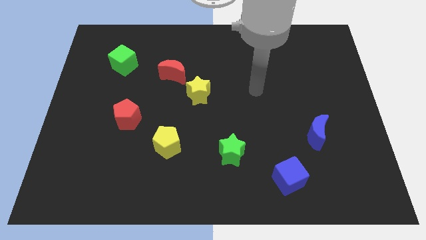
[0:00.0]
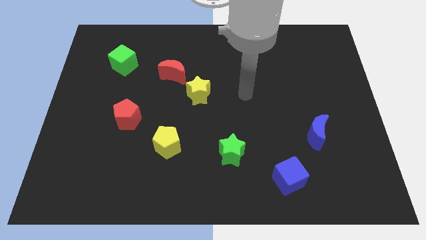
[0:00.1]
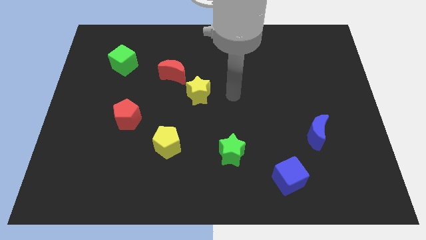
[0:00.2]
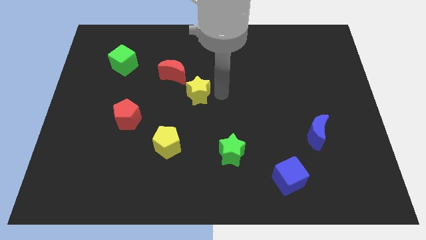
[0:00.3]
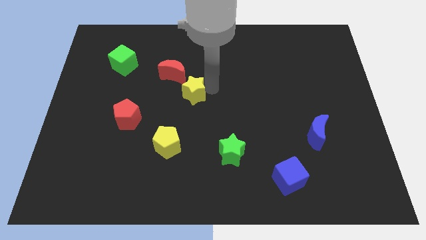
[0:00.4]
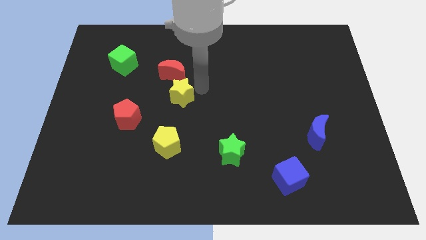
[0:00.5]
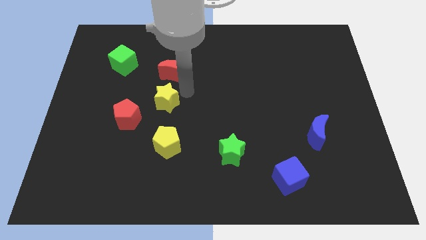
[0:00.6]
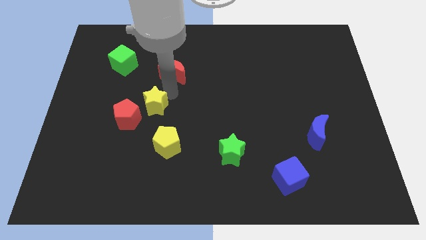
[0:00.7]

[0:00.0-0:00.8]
move the red moon away from the yellow star

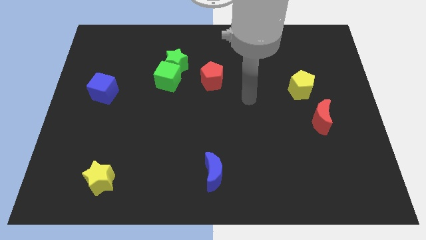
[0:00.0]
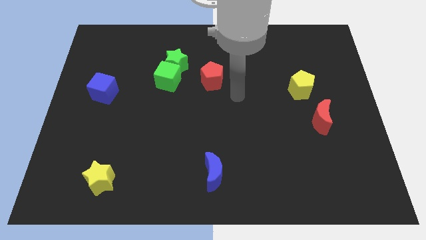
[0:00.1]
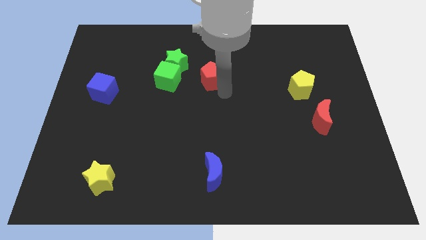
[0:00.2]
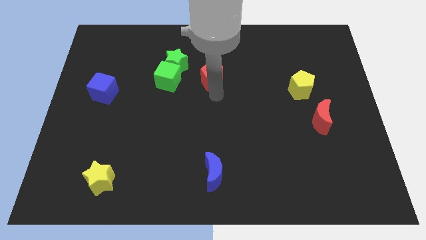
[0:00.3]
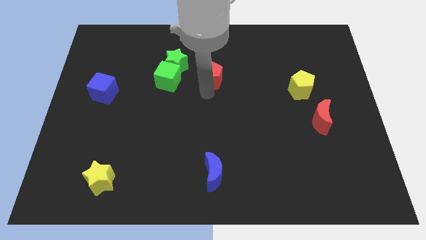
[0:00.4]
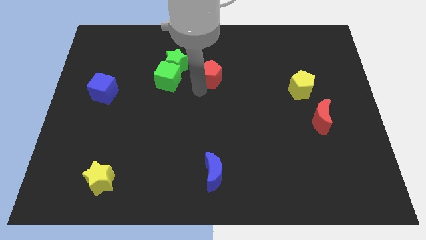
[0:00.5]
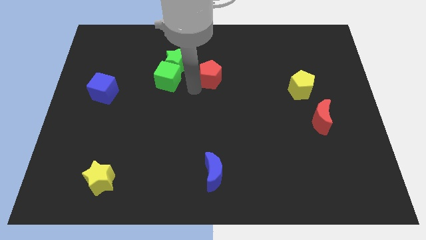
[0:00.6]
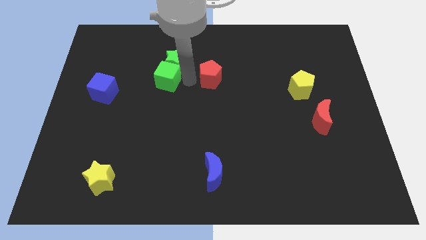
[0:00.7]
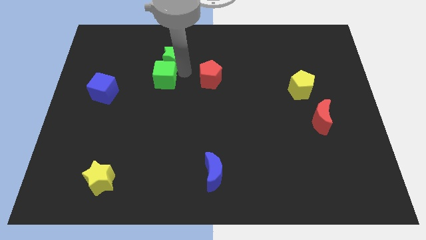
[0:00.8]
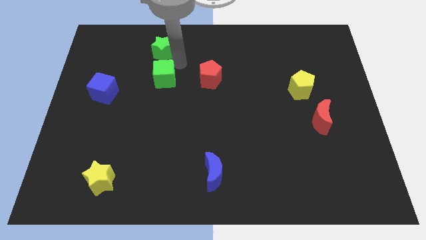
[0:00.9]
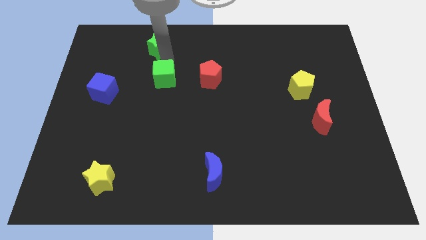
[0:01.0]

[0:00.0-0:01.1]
separate the green cube from the green star

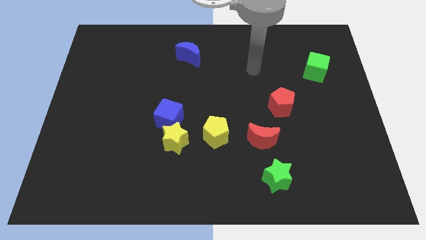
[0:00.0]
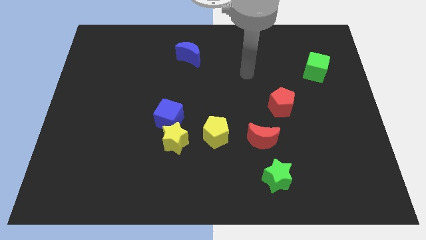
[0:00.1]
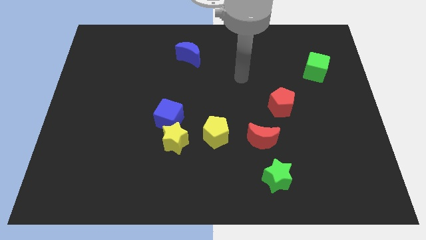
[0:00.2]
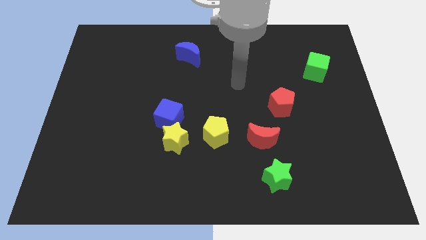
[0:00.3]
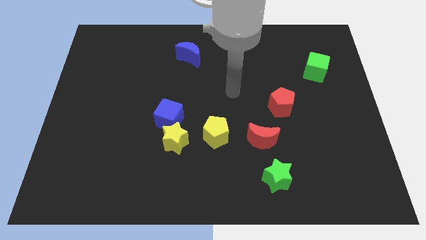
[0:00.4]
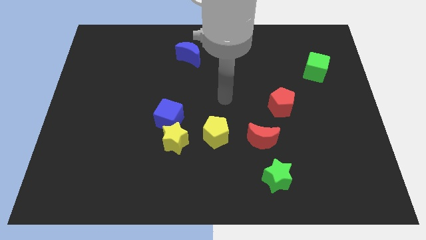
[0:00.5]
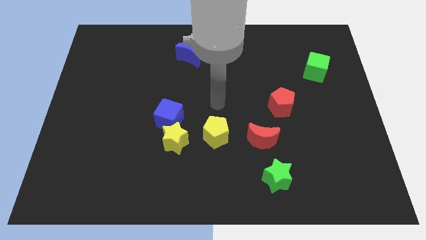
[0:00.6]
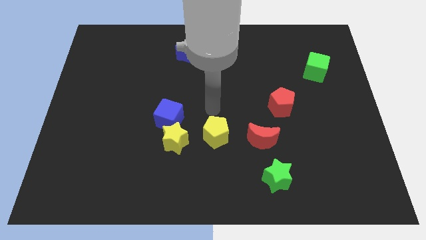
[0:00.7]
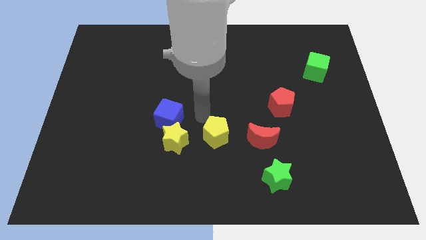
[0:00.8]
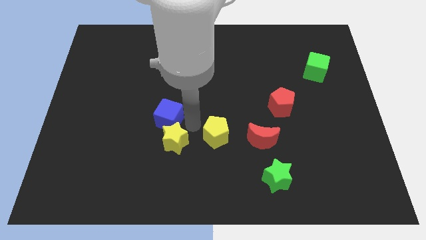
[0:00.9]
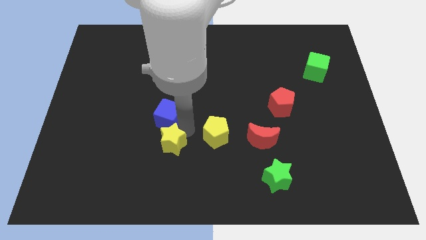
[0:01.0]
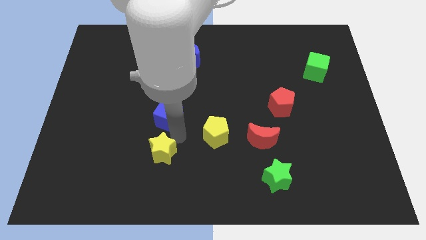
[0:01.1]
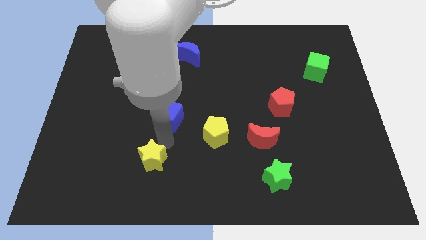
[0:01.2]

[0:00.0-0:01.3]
move the blue cube away from the yellow star

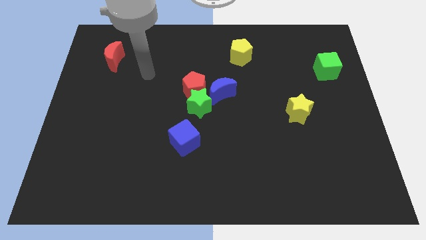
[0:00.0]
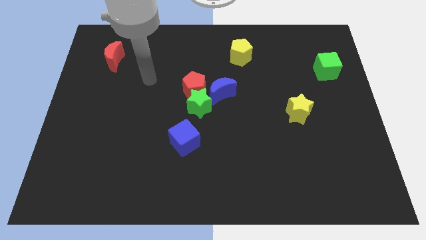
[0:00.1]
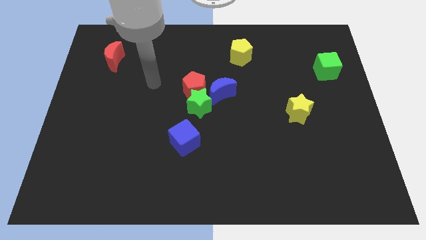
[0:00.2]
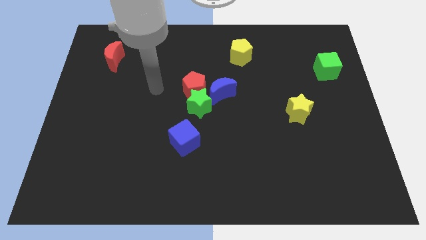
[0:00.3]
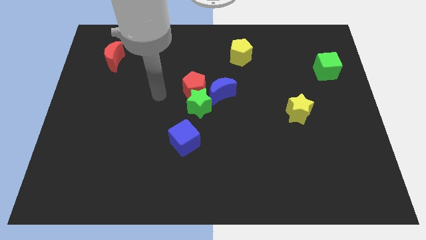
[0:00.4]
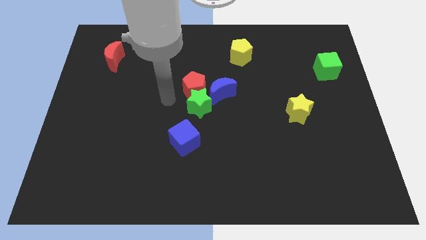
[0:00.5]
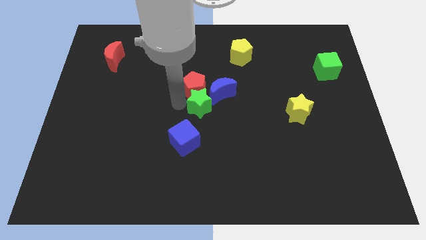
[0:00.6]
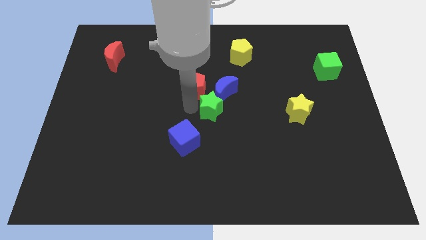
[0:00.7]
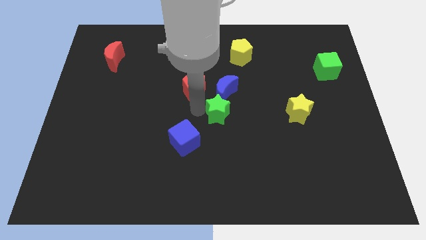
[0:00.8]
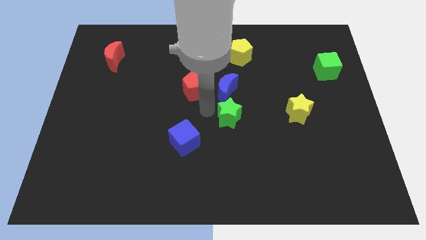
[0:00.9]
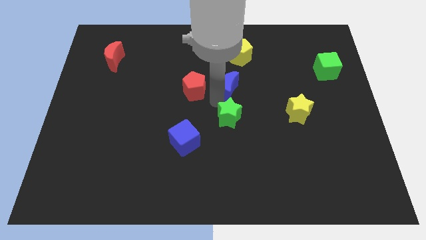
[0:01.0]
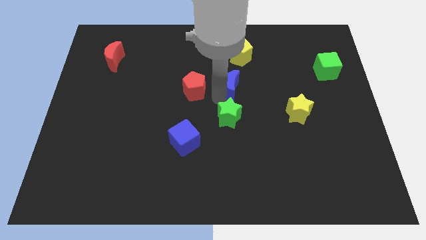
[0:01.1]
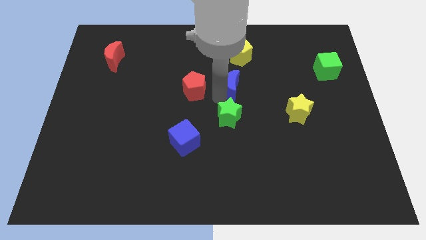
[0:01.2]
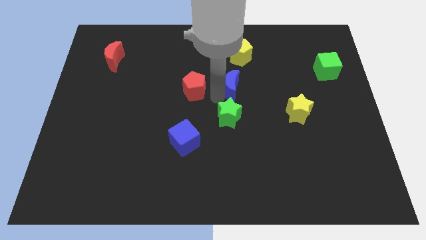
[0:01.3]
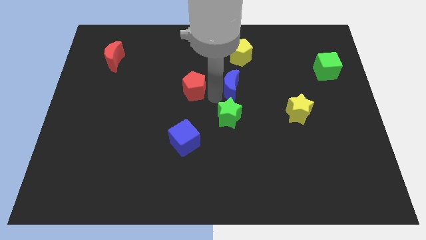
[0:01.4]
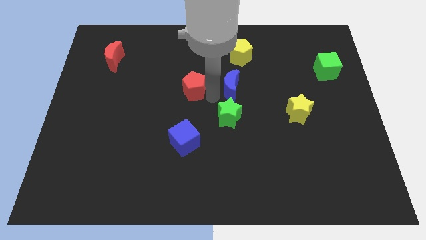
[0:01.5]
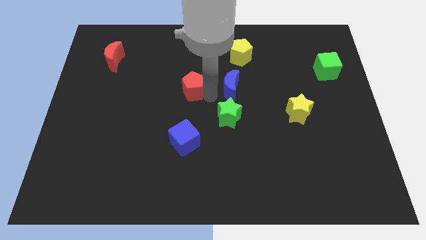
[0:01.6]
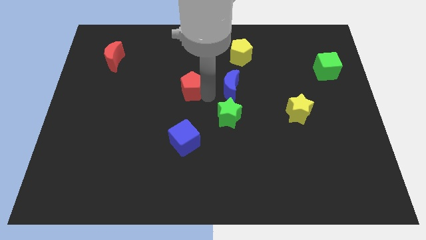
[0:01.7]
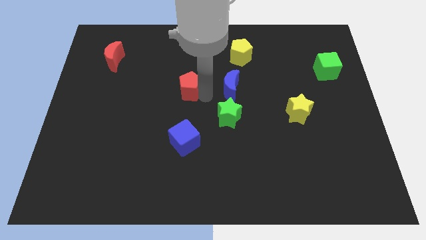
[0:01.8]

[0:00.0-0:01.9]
separate the red pentagon from the green star and blue moon

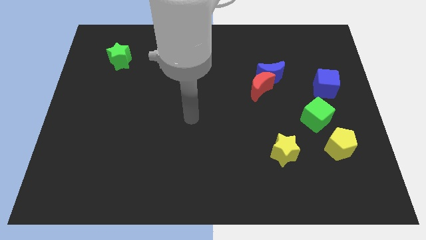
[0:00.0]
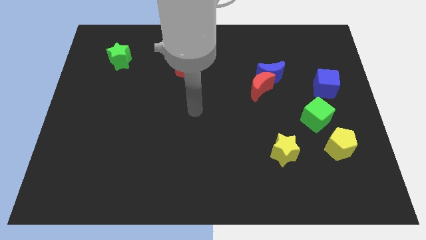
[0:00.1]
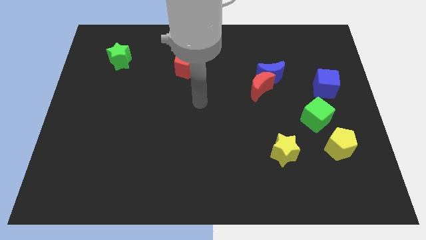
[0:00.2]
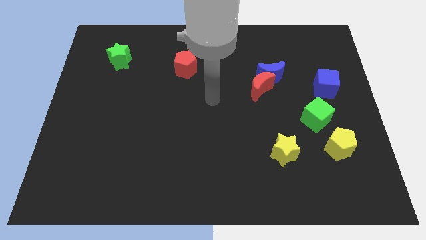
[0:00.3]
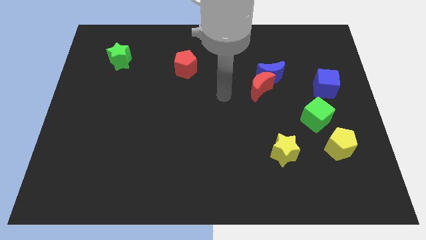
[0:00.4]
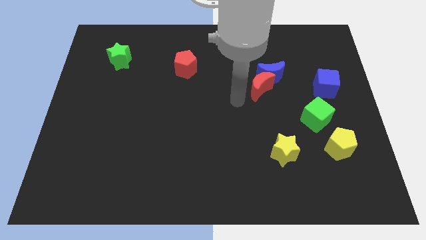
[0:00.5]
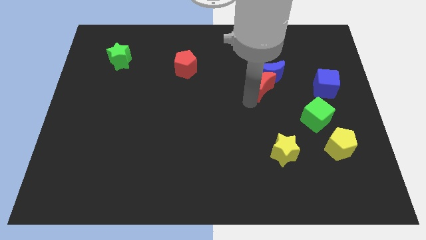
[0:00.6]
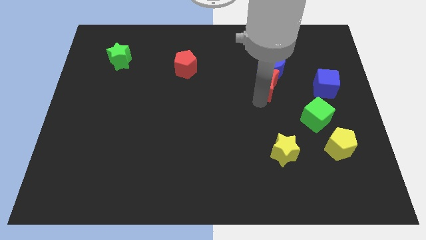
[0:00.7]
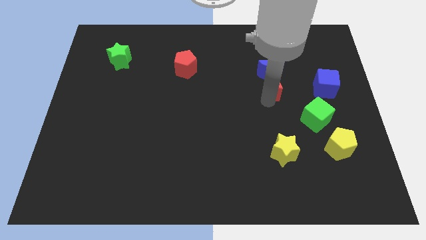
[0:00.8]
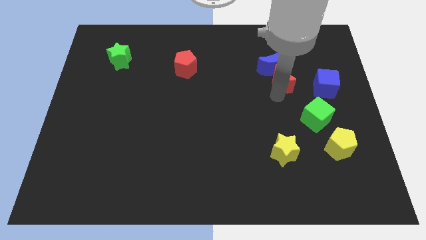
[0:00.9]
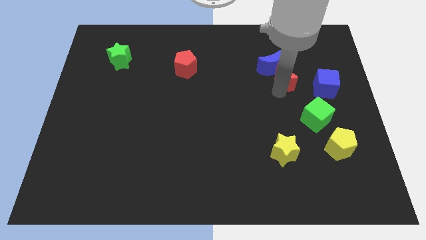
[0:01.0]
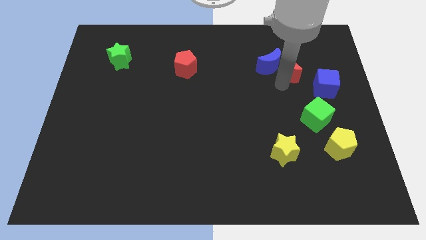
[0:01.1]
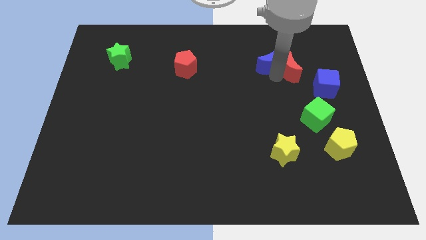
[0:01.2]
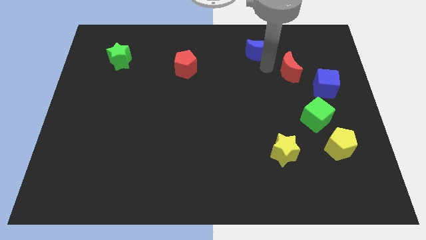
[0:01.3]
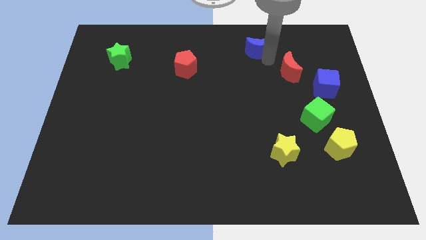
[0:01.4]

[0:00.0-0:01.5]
move the red moon away from the blue moon

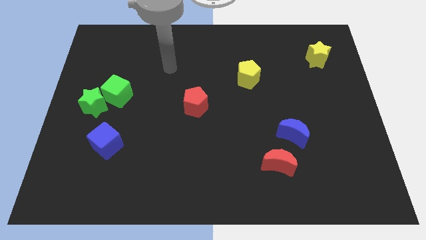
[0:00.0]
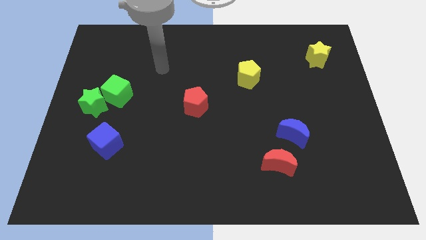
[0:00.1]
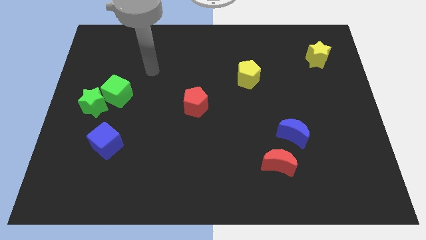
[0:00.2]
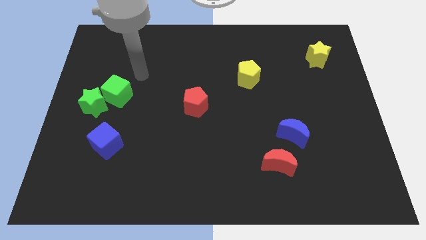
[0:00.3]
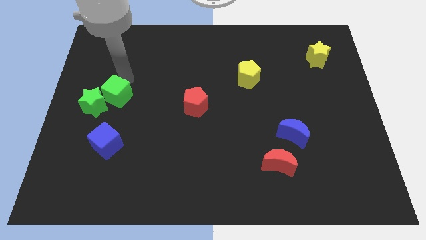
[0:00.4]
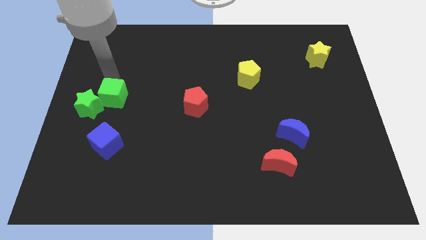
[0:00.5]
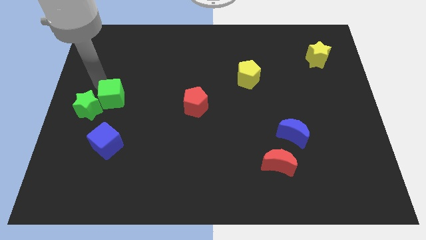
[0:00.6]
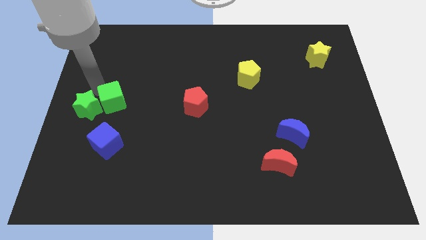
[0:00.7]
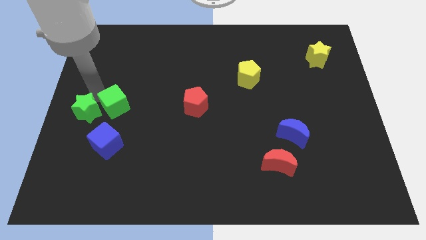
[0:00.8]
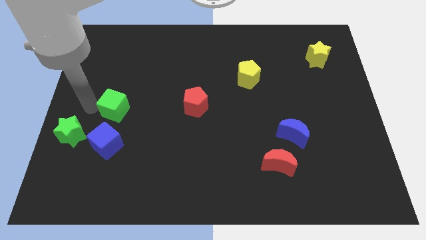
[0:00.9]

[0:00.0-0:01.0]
move the green cube away from the green star

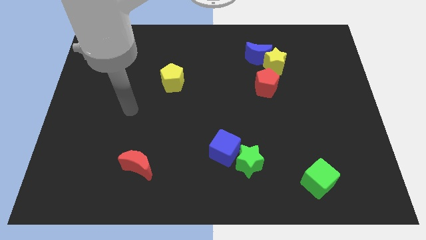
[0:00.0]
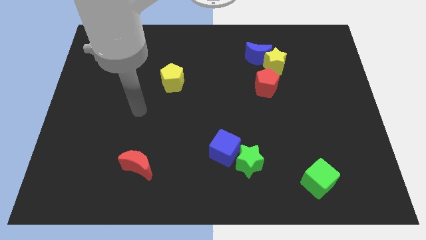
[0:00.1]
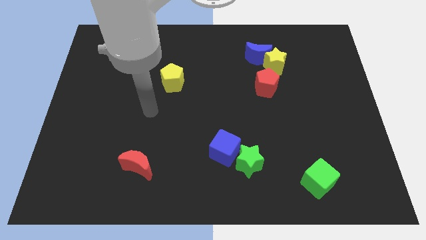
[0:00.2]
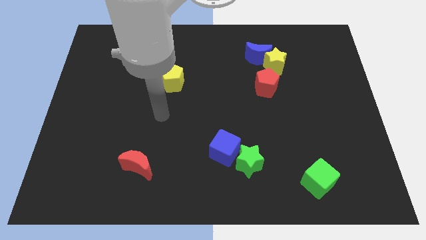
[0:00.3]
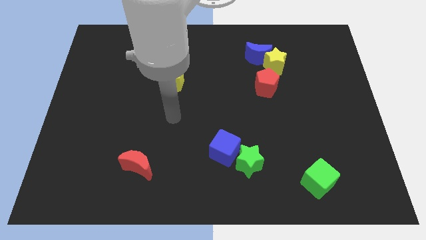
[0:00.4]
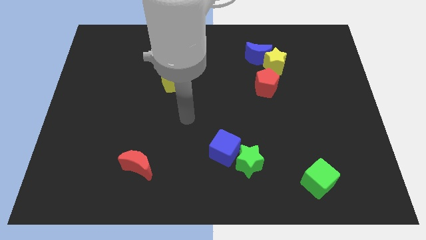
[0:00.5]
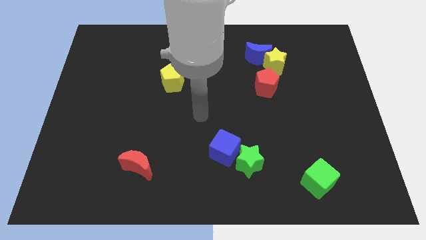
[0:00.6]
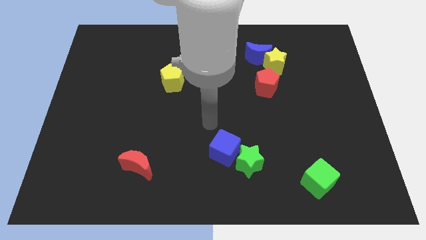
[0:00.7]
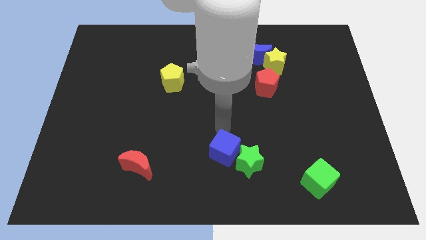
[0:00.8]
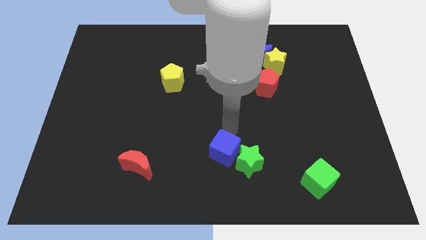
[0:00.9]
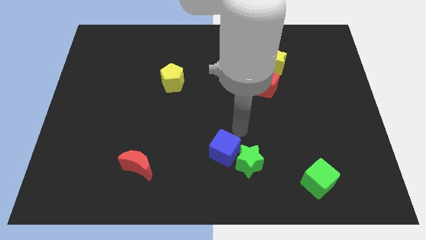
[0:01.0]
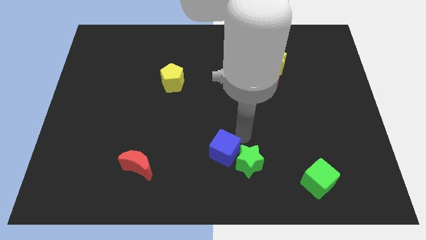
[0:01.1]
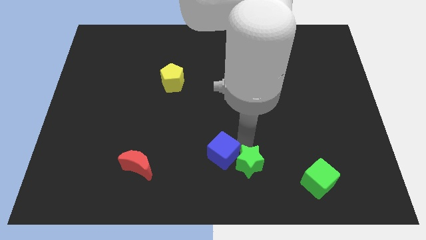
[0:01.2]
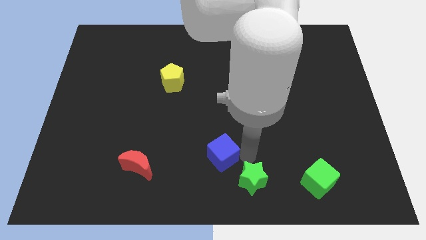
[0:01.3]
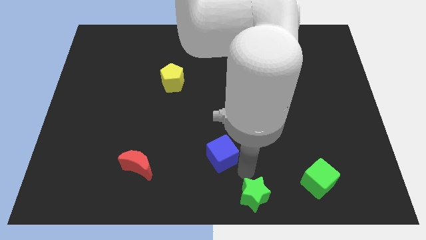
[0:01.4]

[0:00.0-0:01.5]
separate the blue cube from the green star

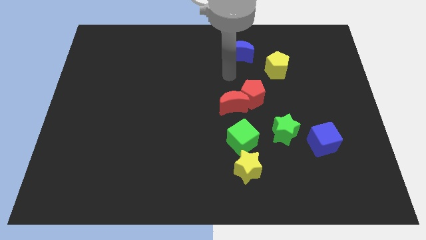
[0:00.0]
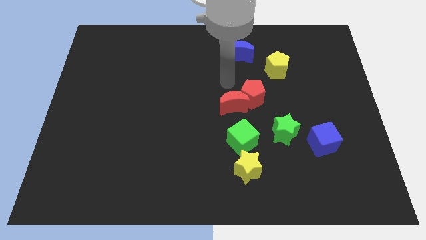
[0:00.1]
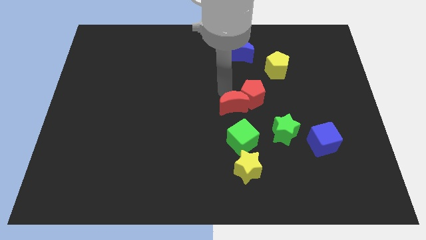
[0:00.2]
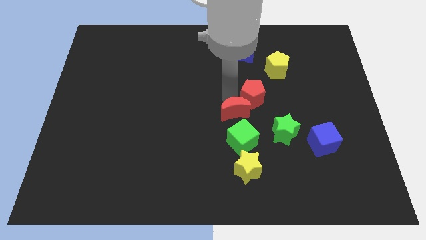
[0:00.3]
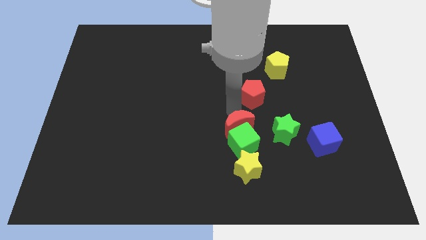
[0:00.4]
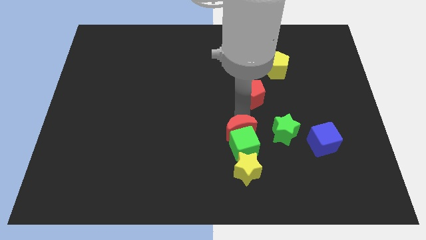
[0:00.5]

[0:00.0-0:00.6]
separate the red pentagon from the red moon
